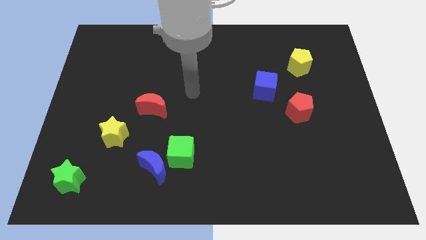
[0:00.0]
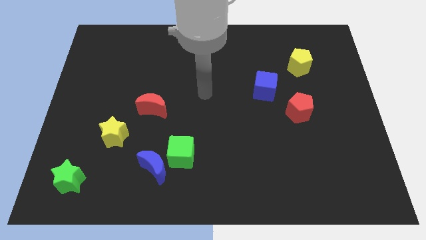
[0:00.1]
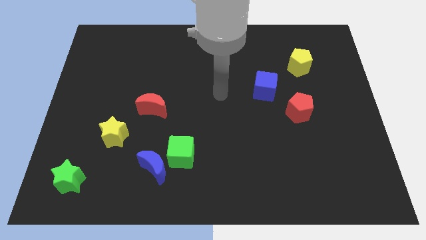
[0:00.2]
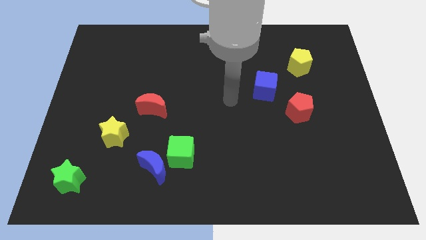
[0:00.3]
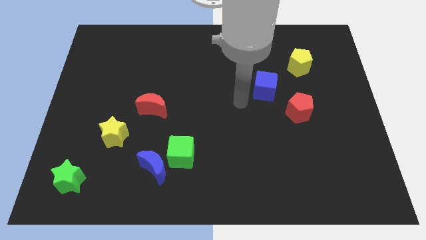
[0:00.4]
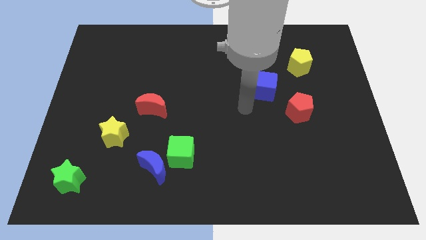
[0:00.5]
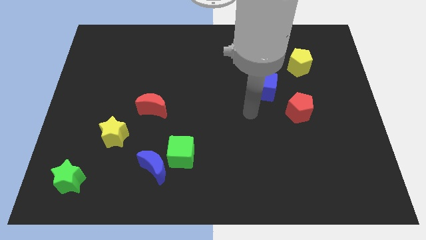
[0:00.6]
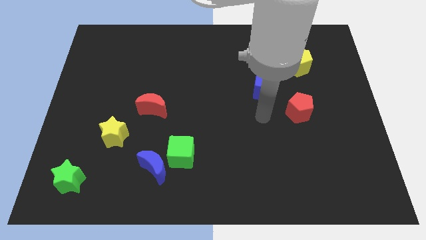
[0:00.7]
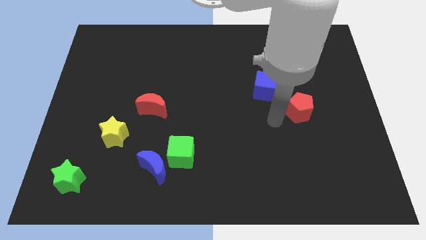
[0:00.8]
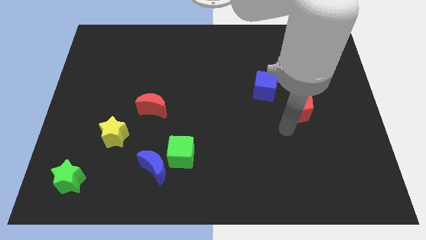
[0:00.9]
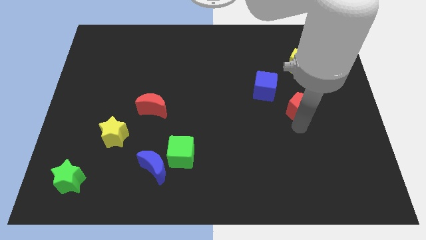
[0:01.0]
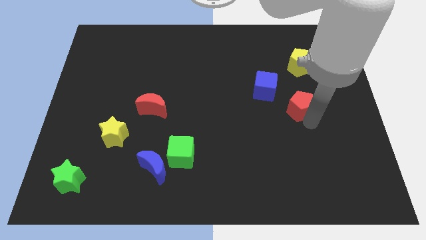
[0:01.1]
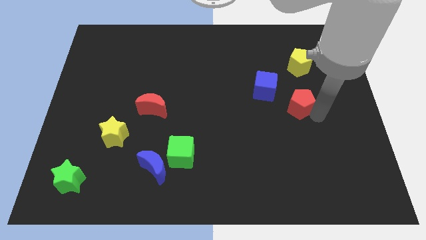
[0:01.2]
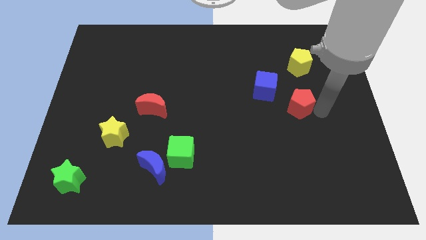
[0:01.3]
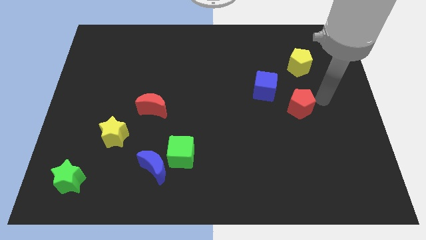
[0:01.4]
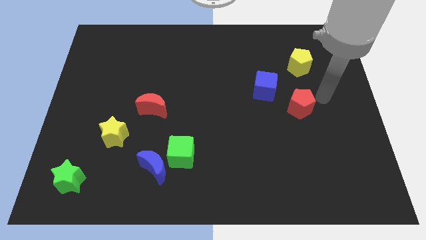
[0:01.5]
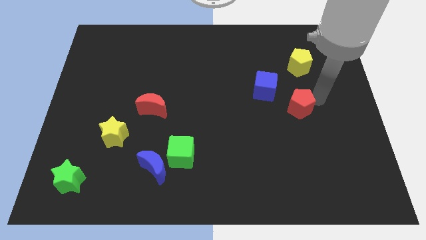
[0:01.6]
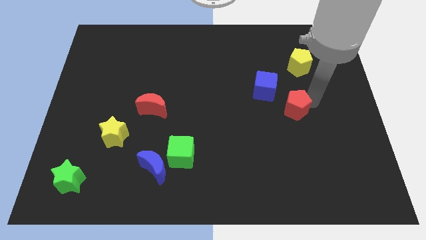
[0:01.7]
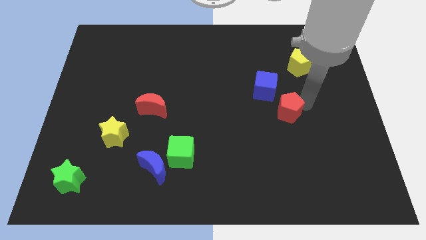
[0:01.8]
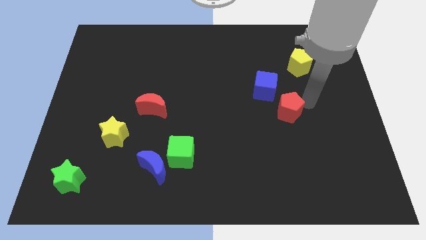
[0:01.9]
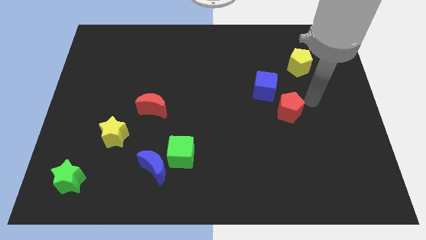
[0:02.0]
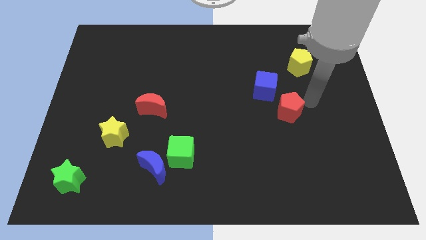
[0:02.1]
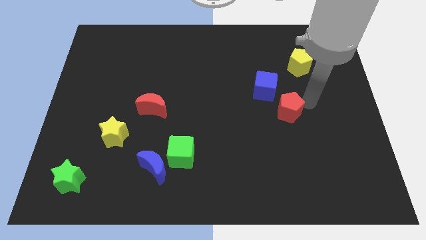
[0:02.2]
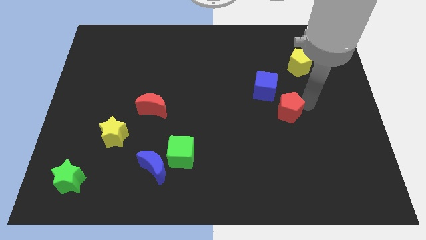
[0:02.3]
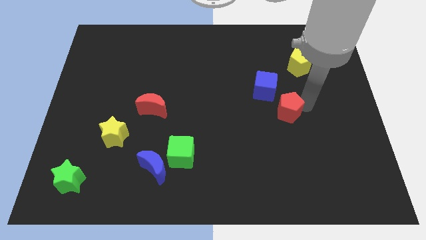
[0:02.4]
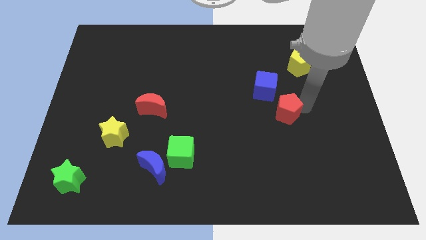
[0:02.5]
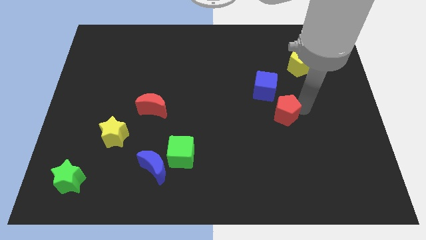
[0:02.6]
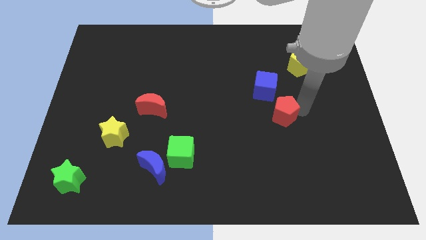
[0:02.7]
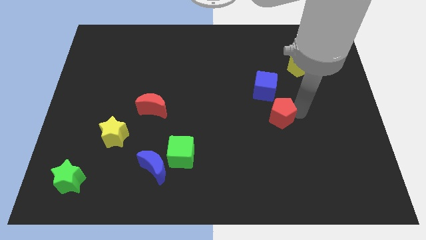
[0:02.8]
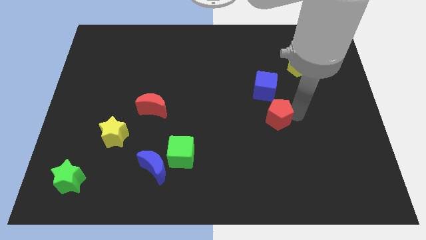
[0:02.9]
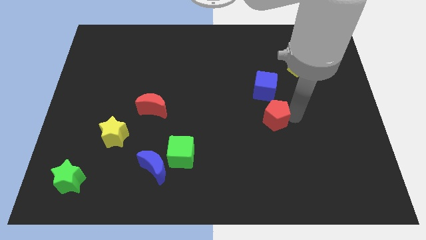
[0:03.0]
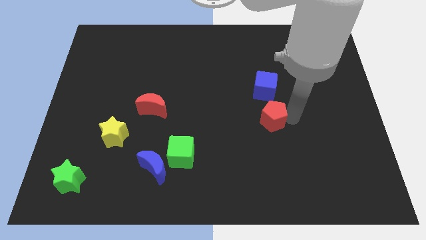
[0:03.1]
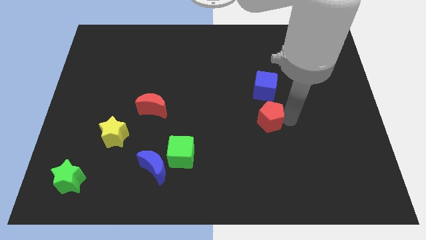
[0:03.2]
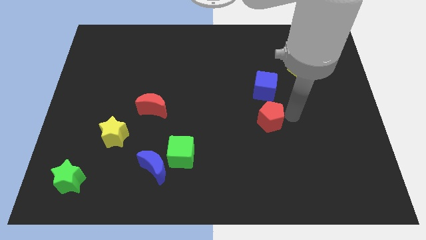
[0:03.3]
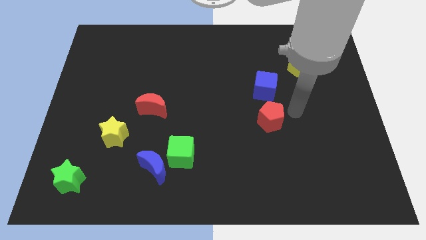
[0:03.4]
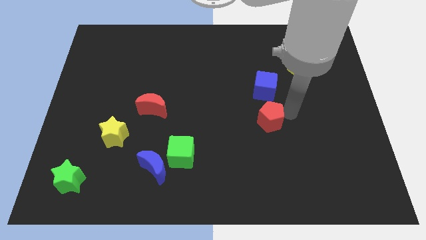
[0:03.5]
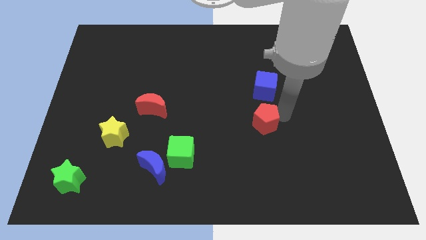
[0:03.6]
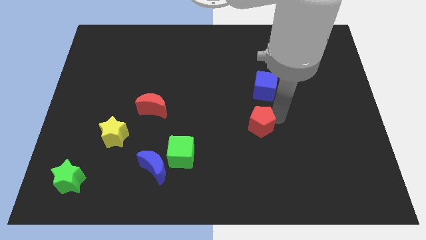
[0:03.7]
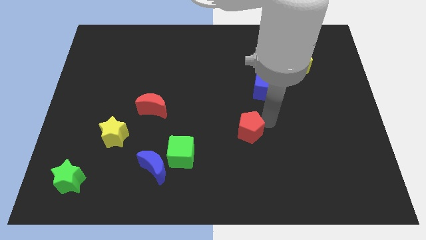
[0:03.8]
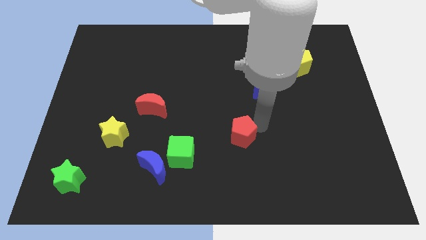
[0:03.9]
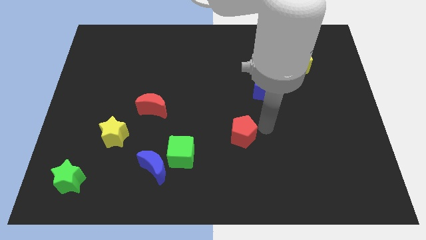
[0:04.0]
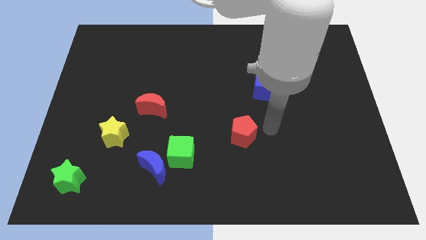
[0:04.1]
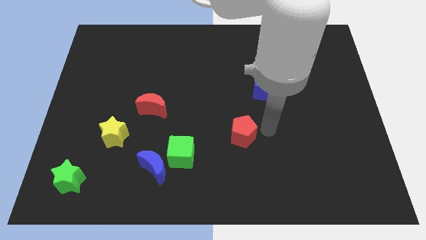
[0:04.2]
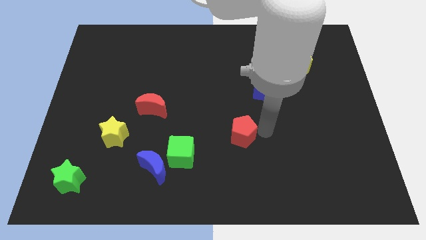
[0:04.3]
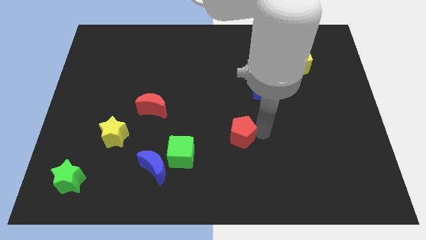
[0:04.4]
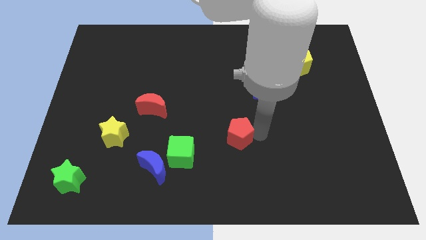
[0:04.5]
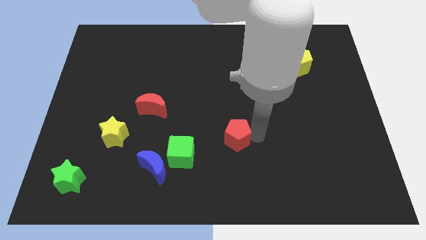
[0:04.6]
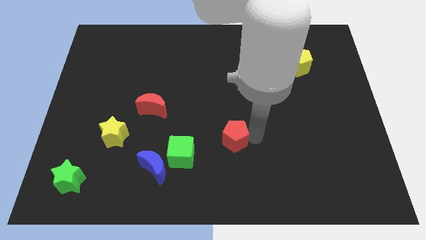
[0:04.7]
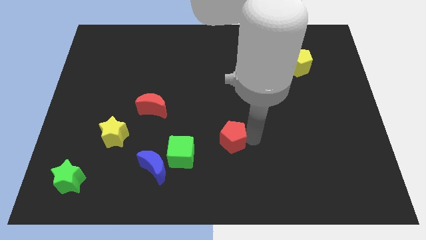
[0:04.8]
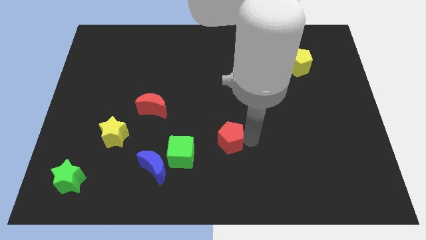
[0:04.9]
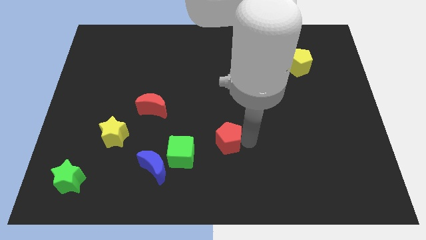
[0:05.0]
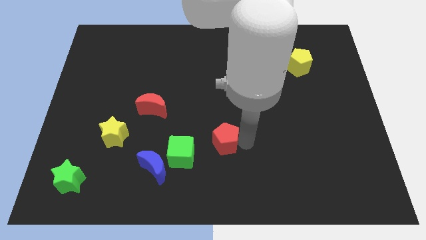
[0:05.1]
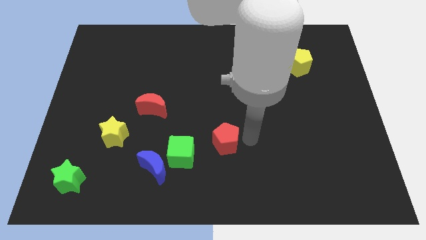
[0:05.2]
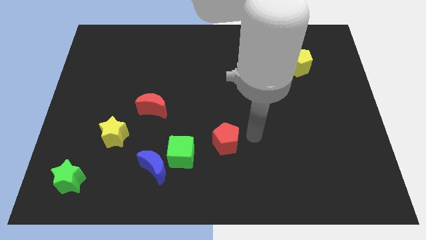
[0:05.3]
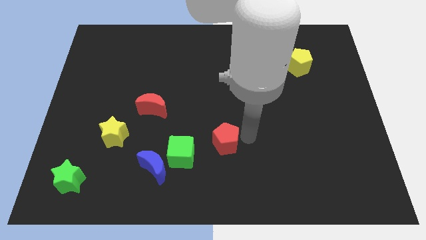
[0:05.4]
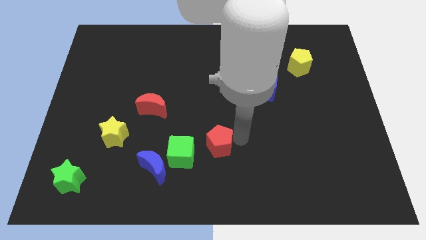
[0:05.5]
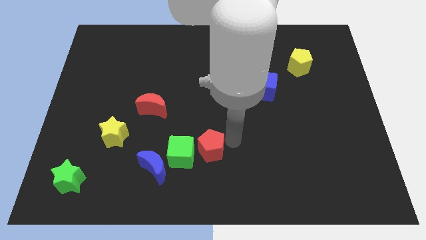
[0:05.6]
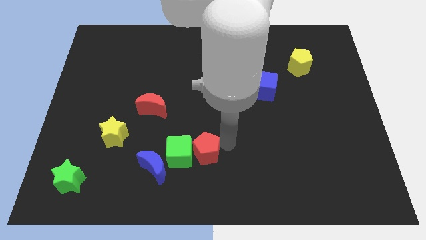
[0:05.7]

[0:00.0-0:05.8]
push the red pentagon to the green cube
